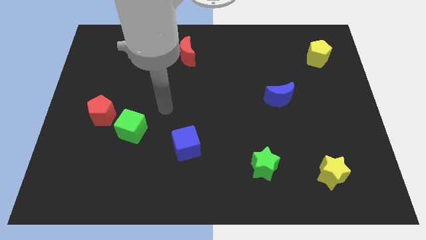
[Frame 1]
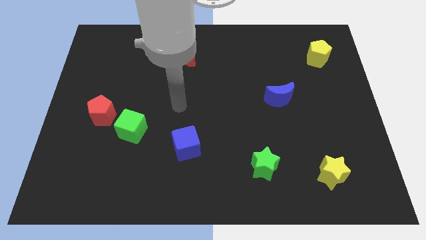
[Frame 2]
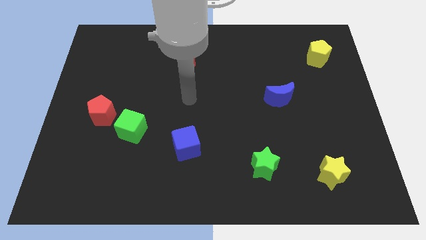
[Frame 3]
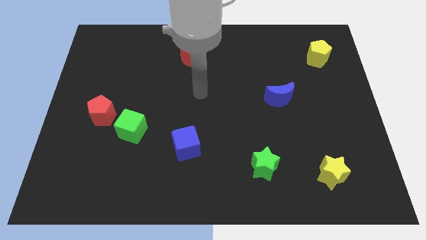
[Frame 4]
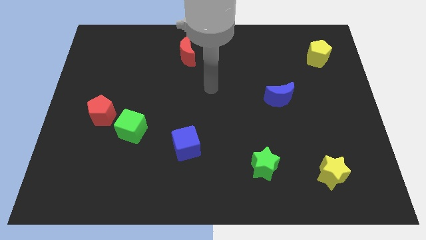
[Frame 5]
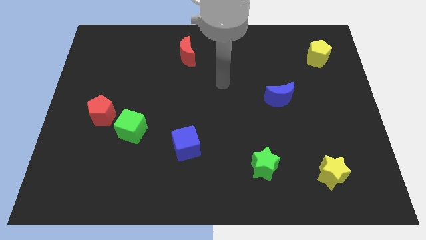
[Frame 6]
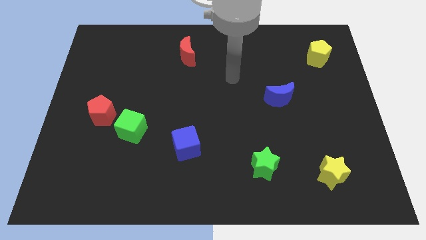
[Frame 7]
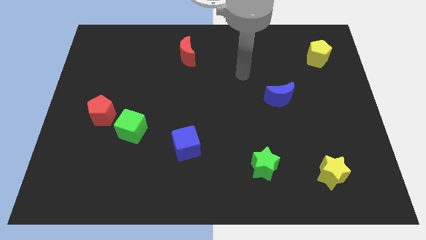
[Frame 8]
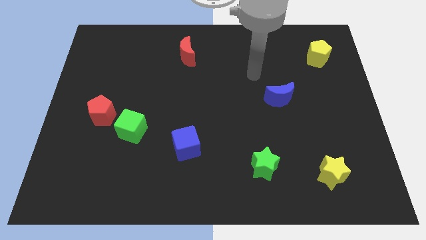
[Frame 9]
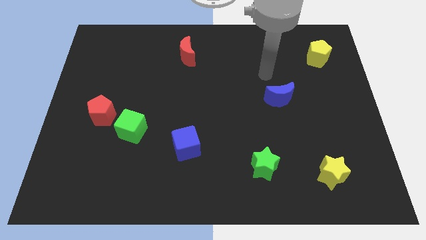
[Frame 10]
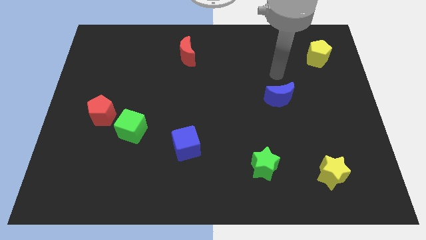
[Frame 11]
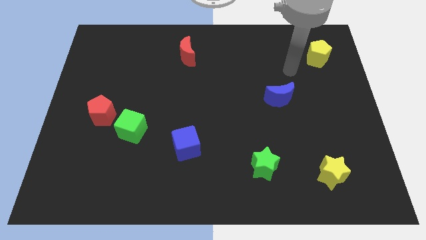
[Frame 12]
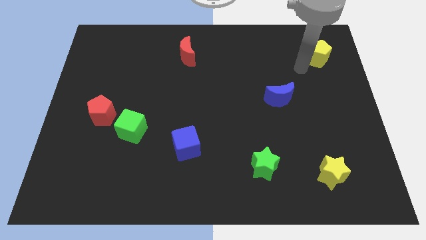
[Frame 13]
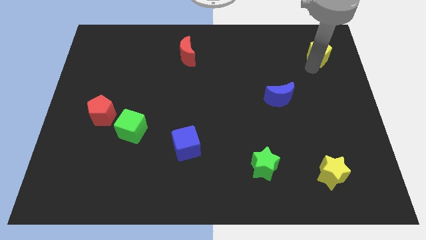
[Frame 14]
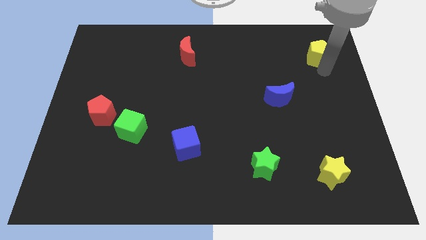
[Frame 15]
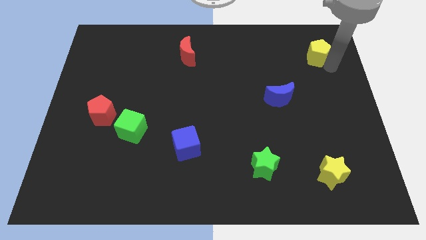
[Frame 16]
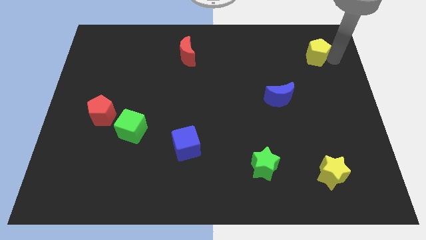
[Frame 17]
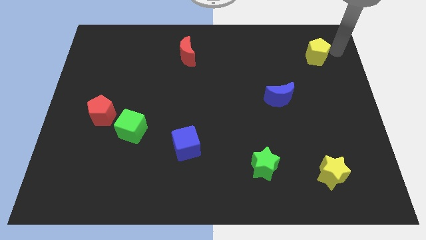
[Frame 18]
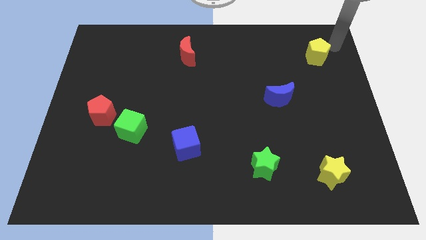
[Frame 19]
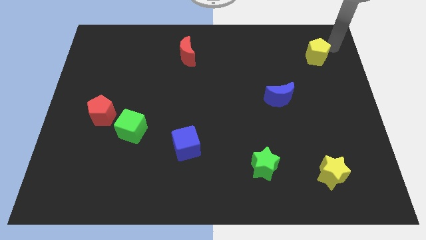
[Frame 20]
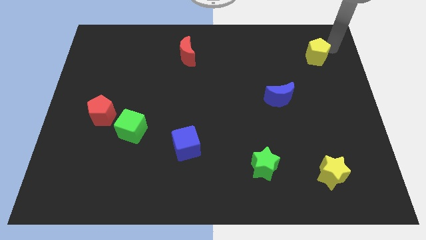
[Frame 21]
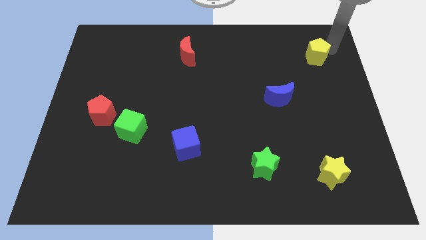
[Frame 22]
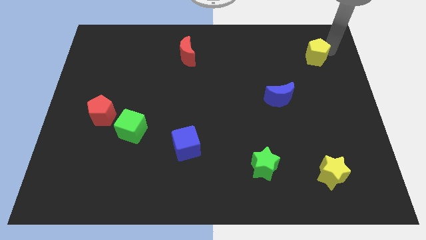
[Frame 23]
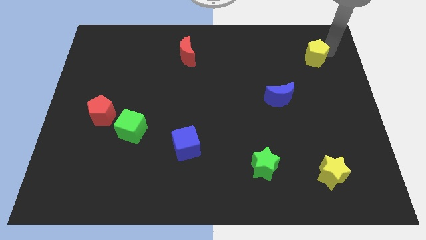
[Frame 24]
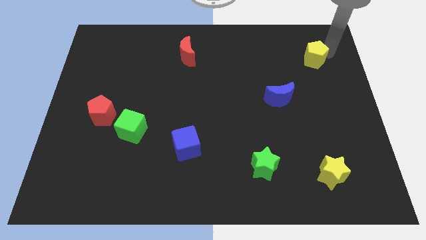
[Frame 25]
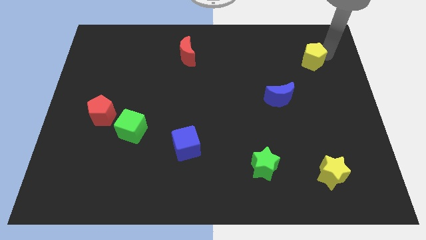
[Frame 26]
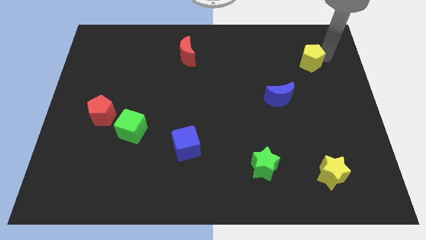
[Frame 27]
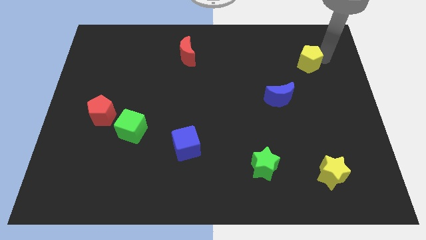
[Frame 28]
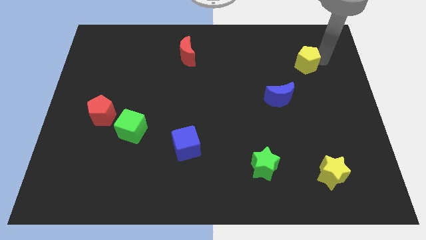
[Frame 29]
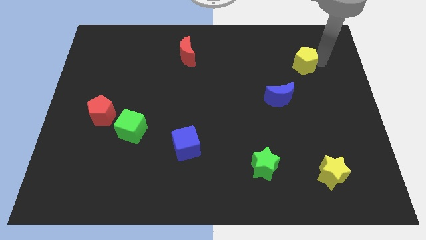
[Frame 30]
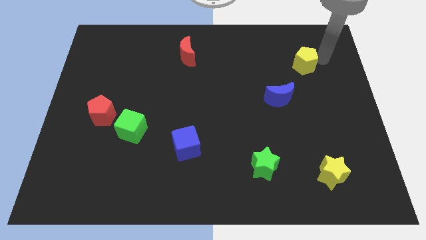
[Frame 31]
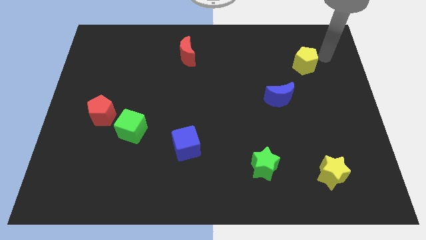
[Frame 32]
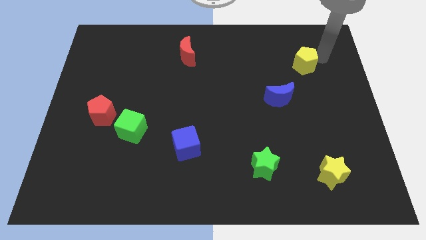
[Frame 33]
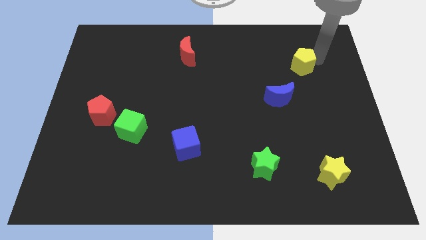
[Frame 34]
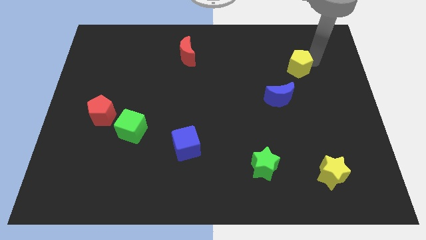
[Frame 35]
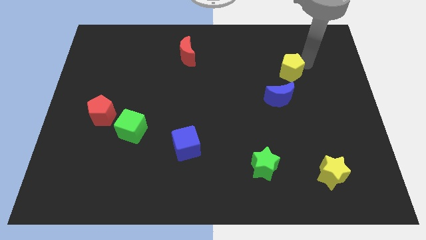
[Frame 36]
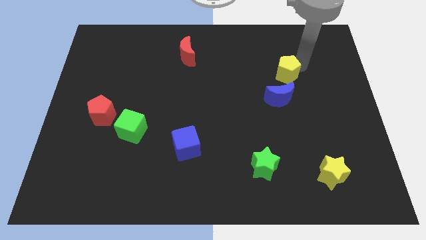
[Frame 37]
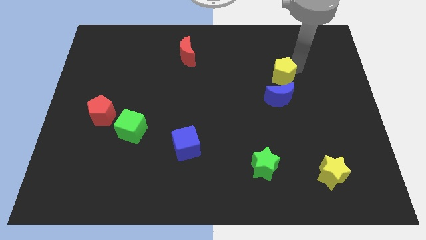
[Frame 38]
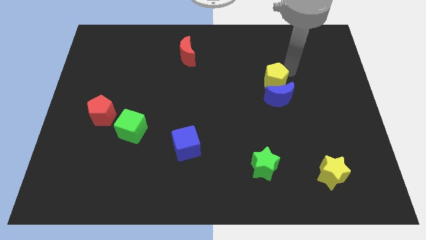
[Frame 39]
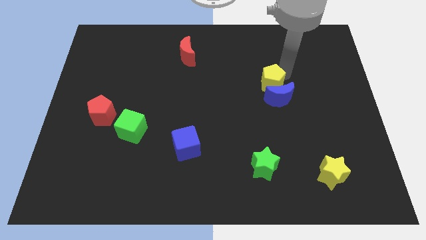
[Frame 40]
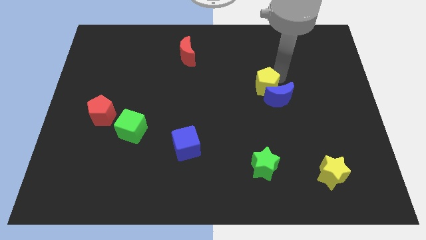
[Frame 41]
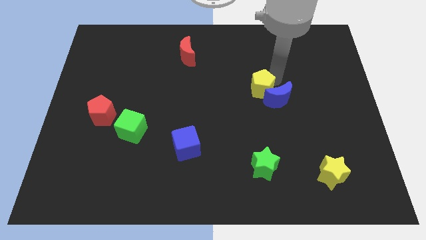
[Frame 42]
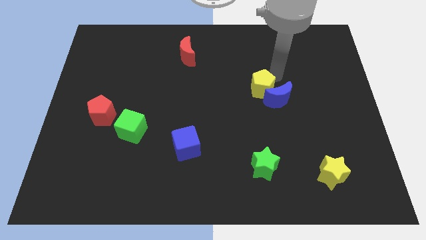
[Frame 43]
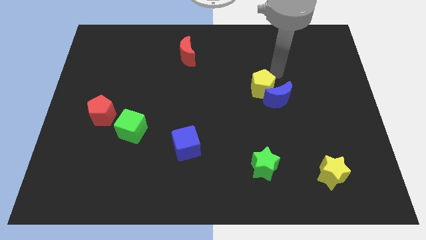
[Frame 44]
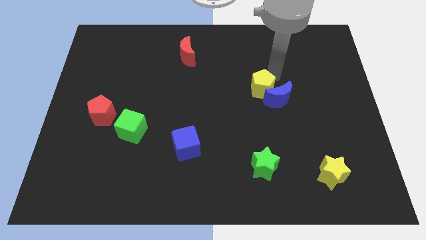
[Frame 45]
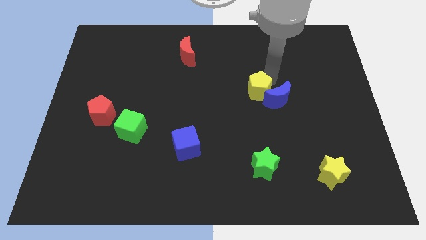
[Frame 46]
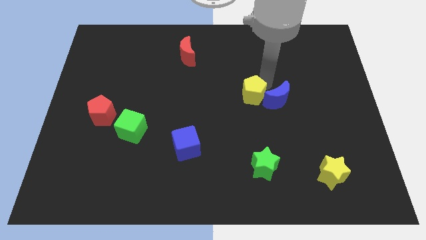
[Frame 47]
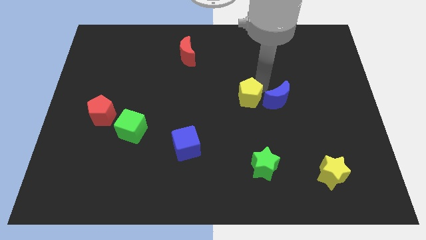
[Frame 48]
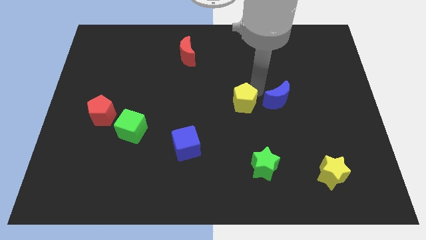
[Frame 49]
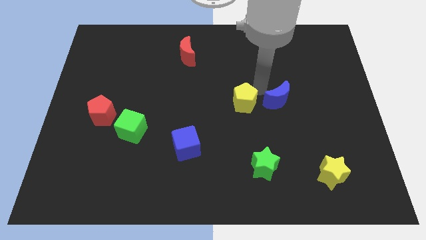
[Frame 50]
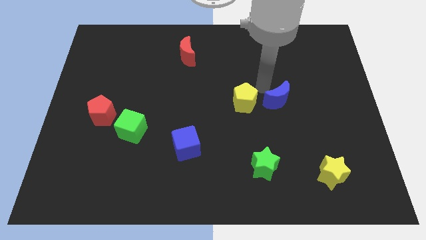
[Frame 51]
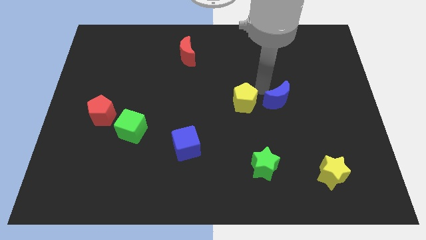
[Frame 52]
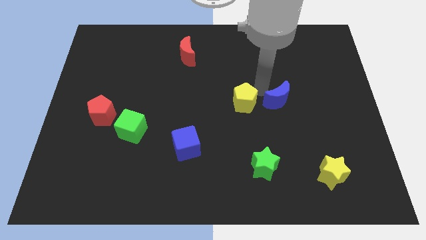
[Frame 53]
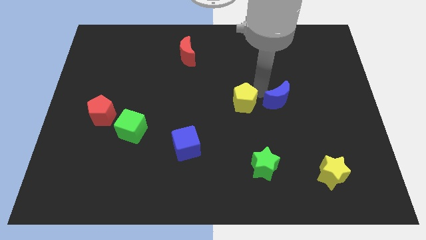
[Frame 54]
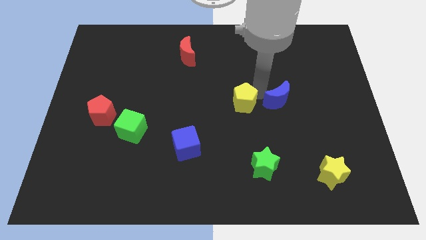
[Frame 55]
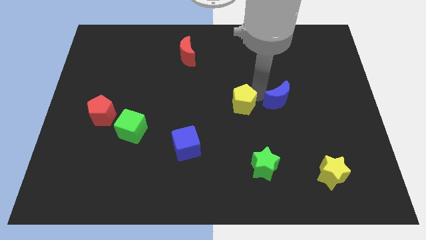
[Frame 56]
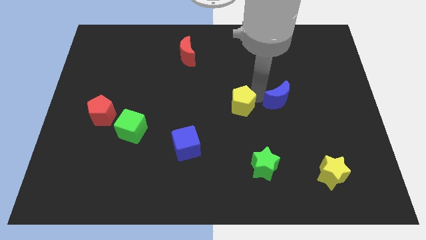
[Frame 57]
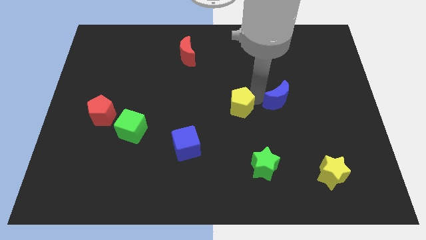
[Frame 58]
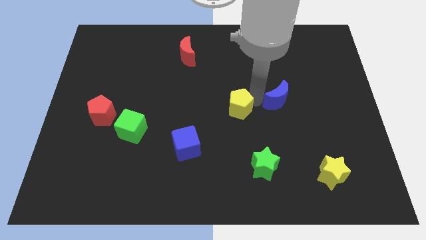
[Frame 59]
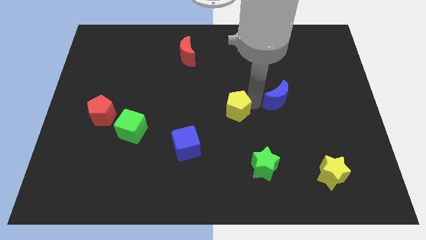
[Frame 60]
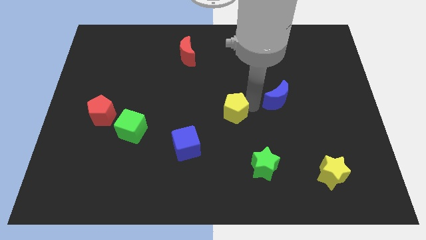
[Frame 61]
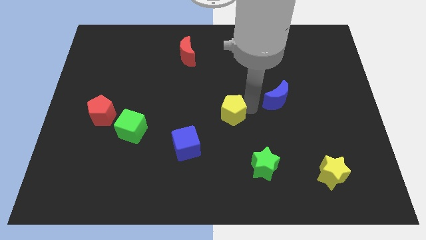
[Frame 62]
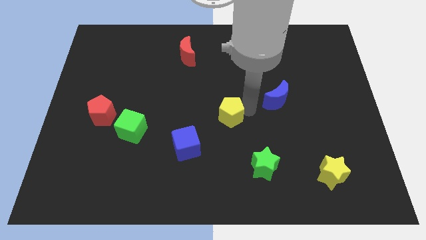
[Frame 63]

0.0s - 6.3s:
move the yellow pentagon to the top right side of the blue cube

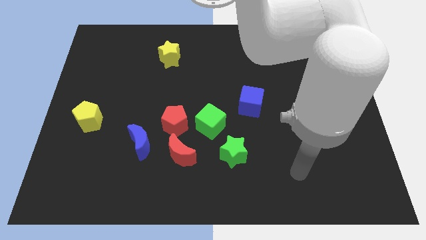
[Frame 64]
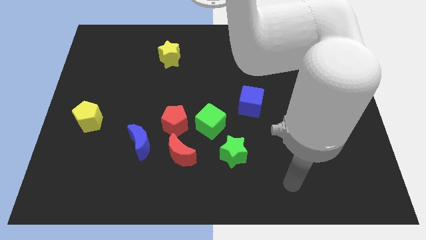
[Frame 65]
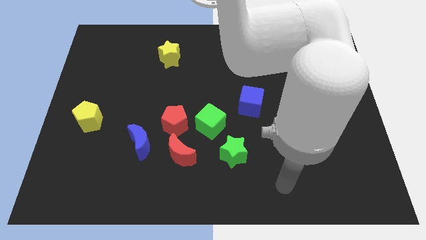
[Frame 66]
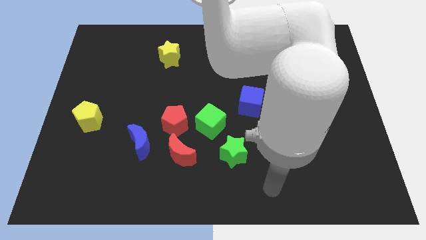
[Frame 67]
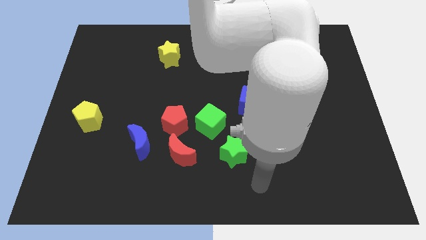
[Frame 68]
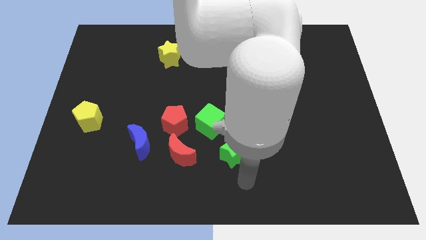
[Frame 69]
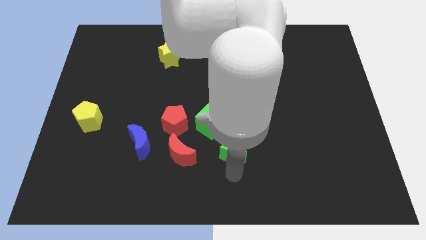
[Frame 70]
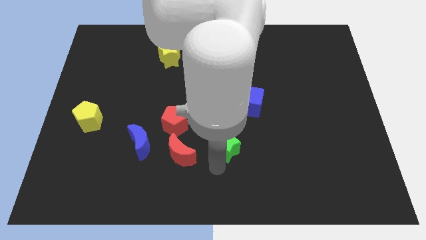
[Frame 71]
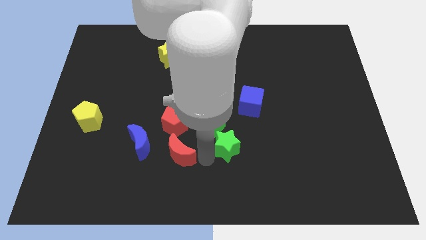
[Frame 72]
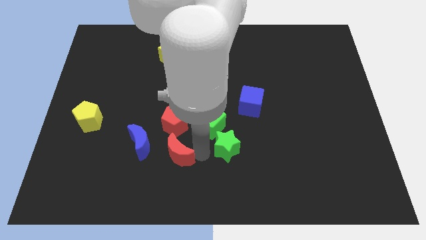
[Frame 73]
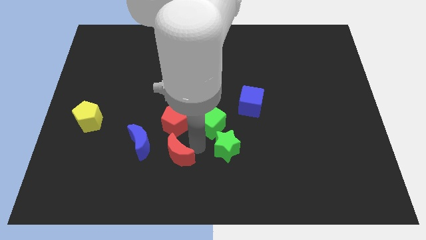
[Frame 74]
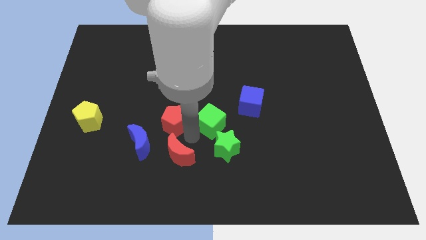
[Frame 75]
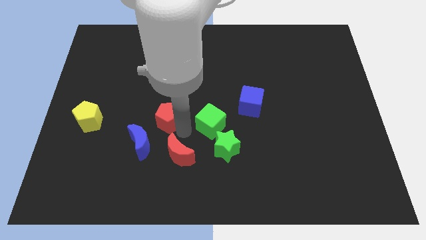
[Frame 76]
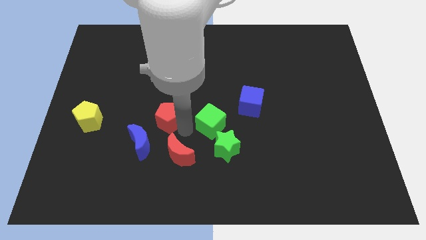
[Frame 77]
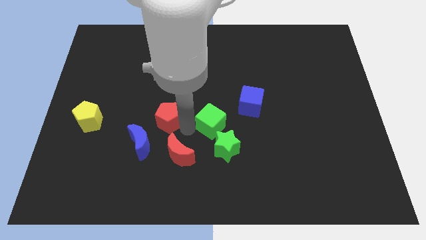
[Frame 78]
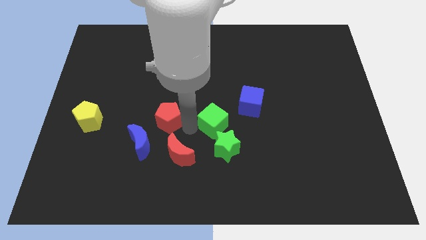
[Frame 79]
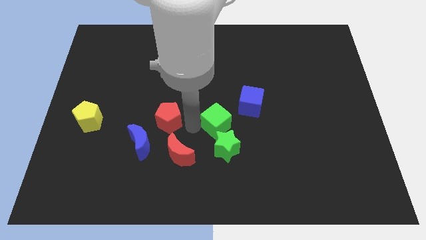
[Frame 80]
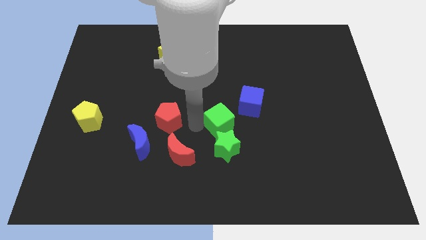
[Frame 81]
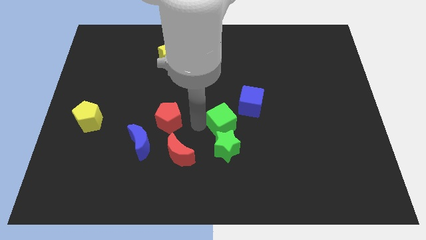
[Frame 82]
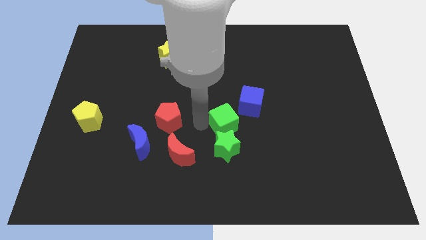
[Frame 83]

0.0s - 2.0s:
push the green cube diagonally up and to the right of the green star
